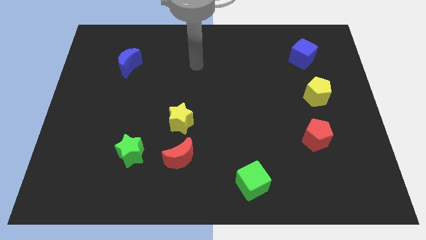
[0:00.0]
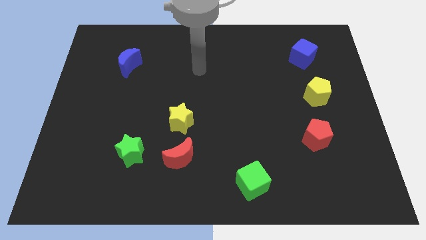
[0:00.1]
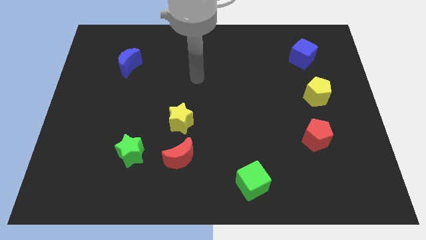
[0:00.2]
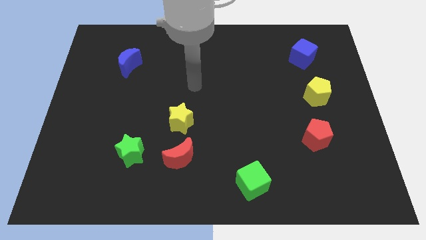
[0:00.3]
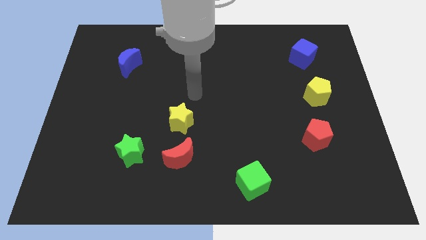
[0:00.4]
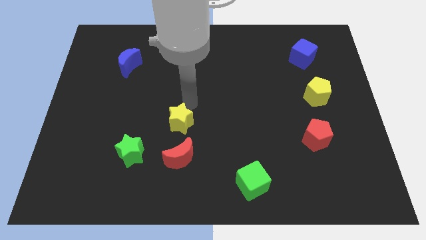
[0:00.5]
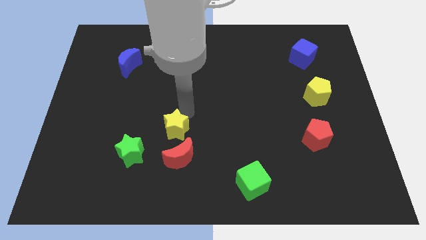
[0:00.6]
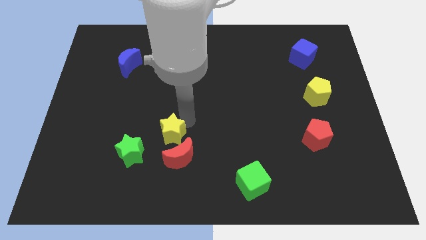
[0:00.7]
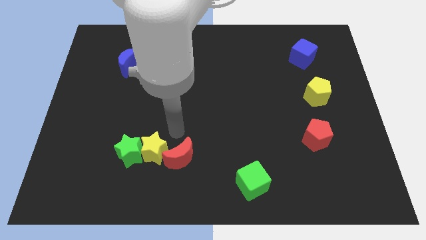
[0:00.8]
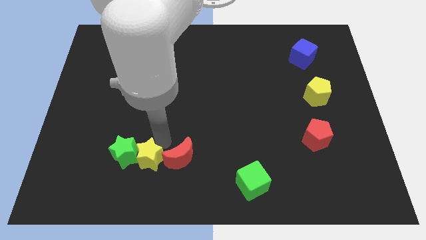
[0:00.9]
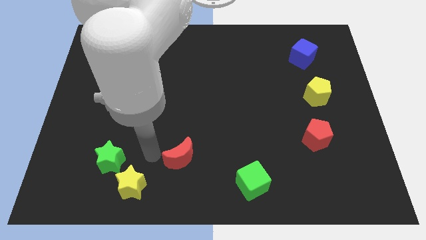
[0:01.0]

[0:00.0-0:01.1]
pull the red moon apart from the yellow star

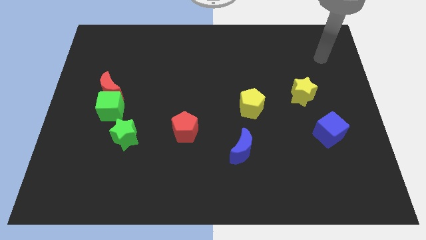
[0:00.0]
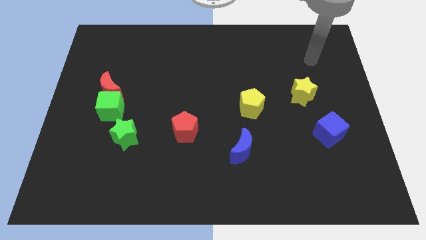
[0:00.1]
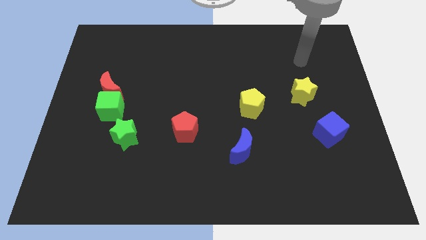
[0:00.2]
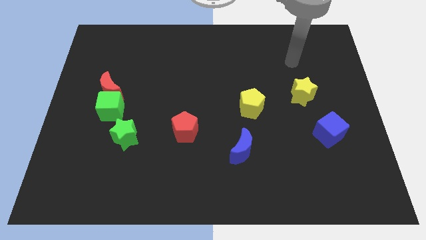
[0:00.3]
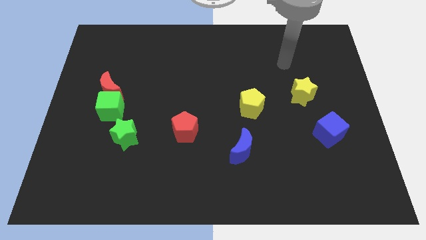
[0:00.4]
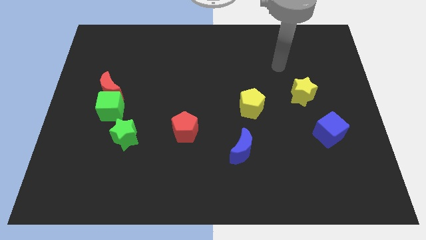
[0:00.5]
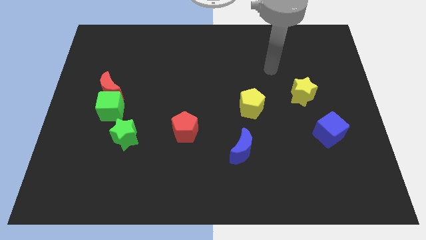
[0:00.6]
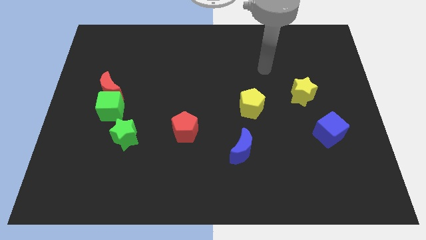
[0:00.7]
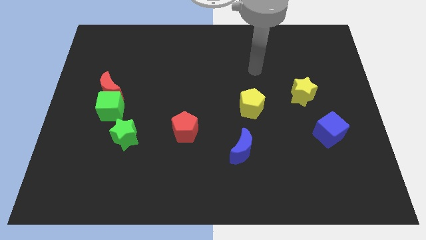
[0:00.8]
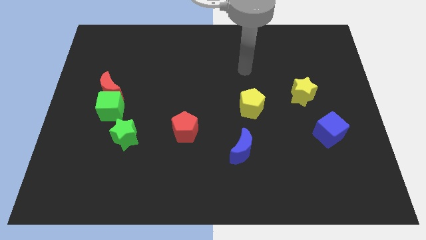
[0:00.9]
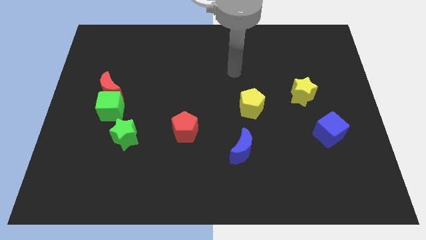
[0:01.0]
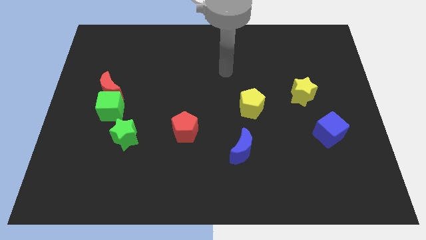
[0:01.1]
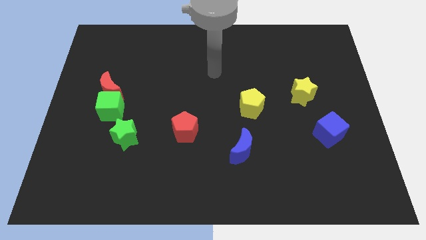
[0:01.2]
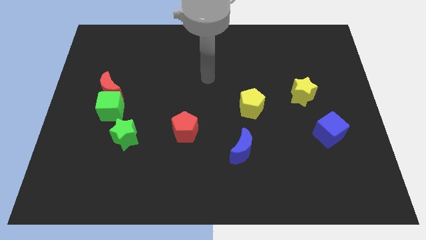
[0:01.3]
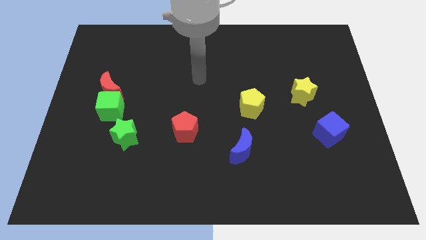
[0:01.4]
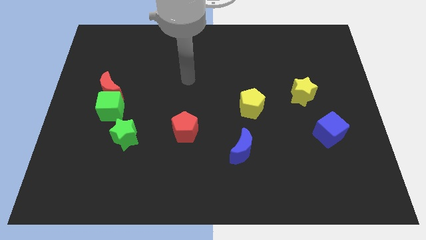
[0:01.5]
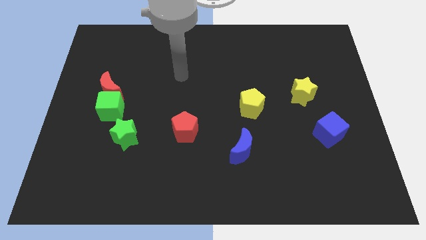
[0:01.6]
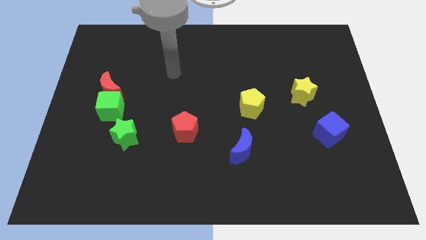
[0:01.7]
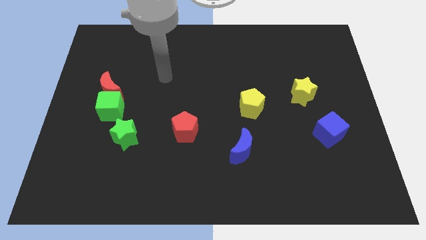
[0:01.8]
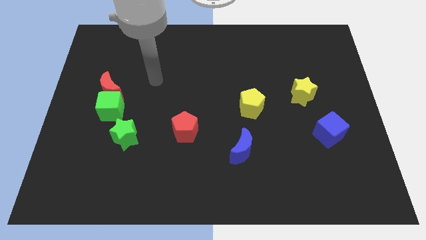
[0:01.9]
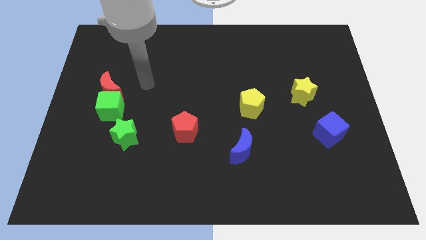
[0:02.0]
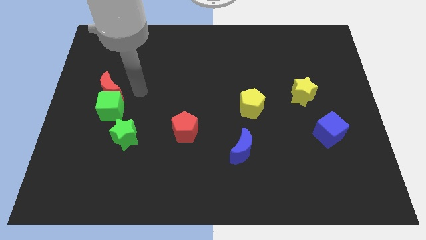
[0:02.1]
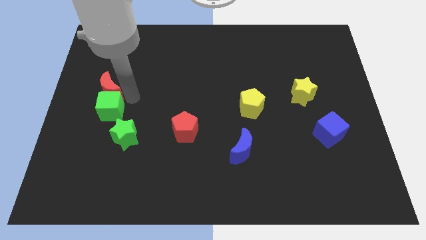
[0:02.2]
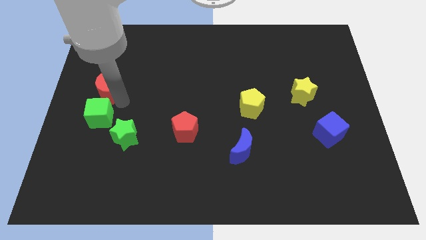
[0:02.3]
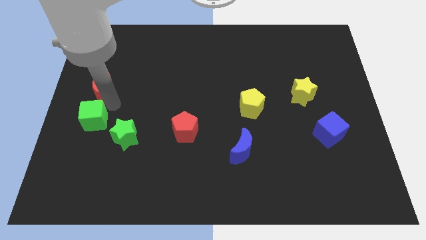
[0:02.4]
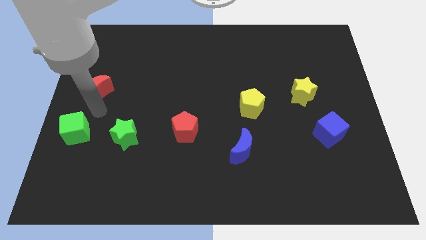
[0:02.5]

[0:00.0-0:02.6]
separate the red moon from the green cube

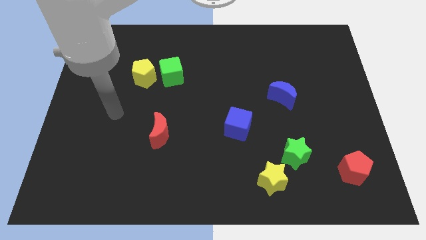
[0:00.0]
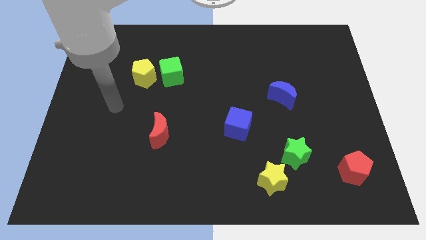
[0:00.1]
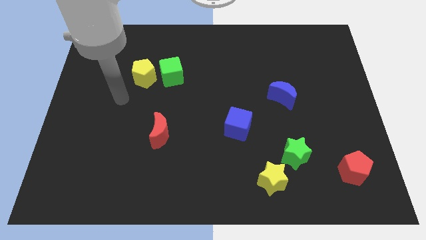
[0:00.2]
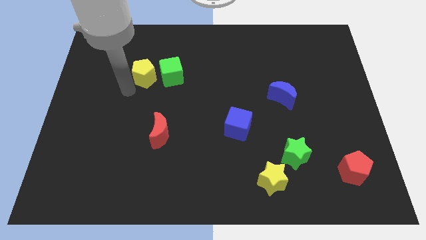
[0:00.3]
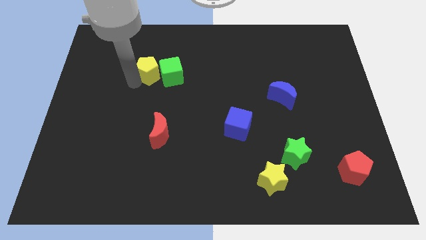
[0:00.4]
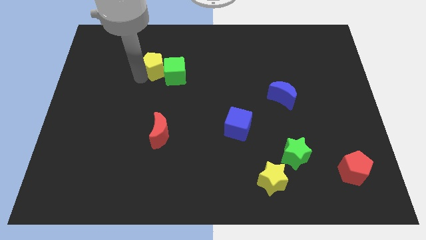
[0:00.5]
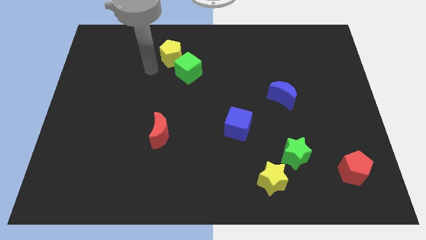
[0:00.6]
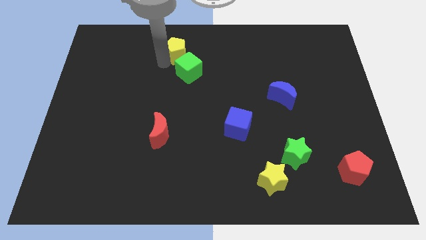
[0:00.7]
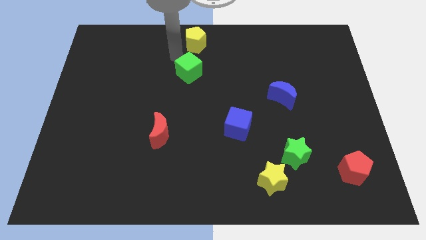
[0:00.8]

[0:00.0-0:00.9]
move the green cube away from the yellow pentagon

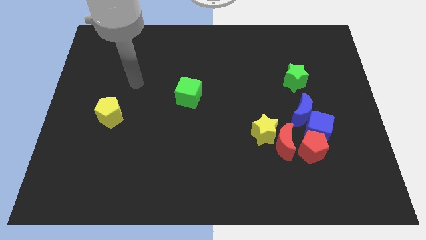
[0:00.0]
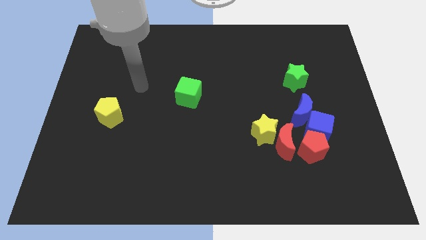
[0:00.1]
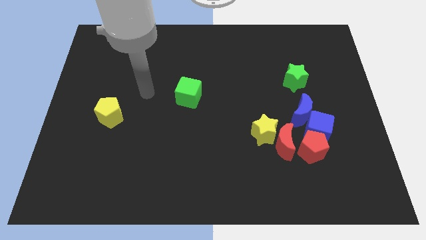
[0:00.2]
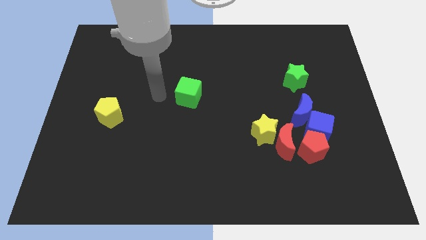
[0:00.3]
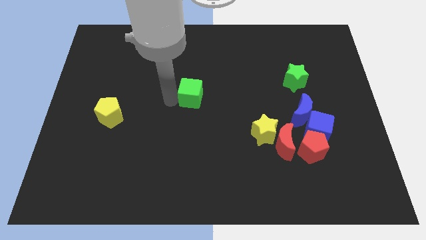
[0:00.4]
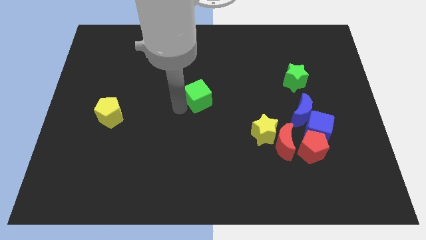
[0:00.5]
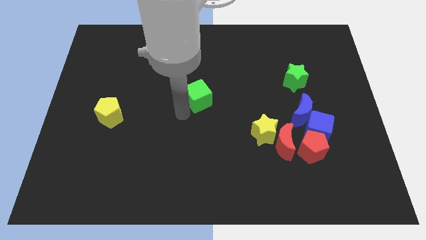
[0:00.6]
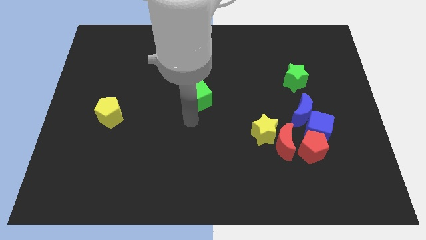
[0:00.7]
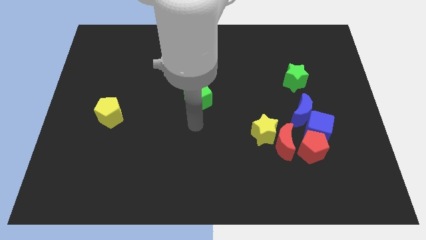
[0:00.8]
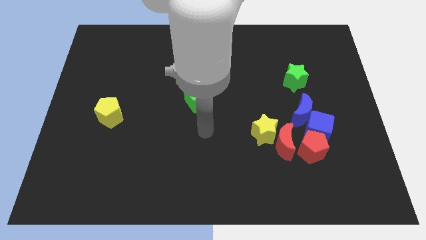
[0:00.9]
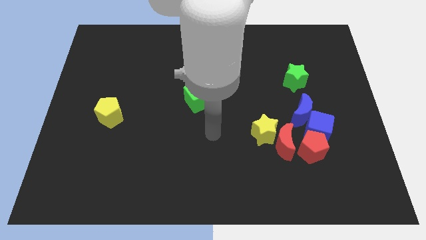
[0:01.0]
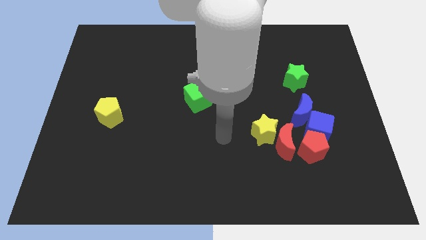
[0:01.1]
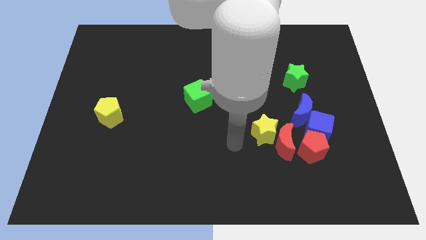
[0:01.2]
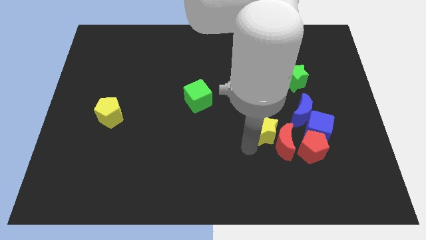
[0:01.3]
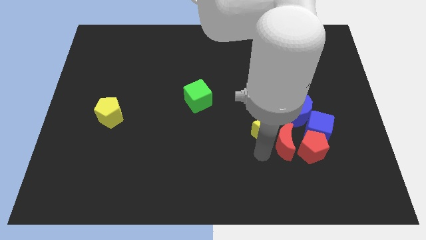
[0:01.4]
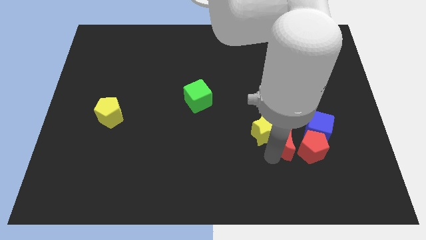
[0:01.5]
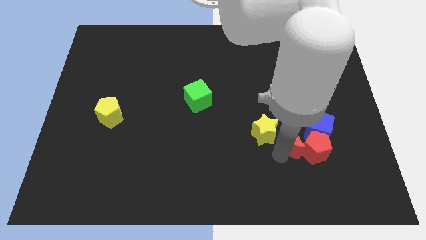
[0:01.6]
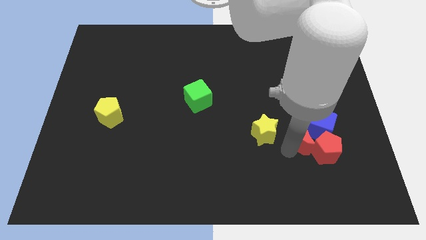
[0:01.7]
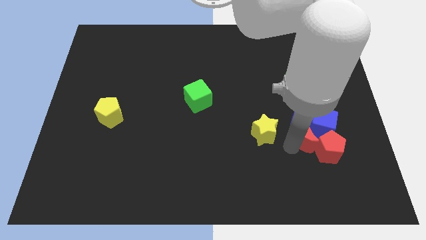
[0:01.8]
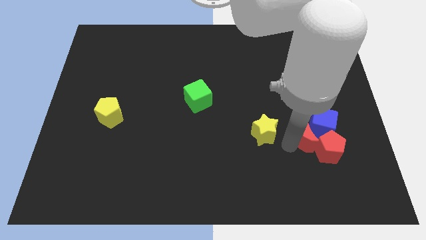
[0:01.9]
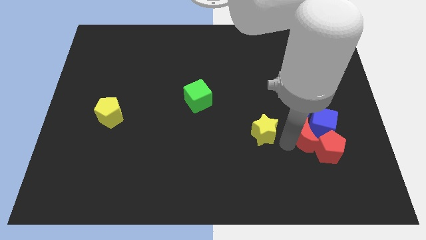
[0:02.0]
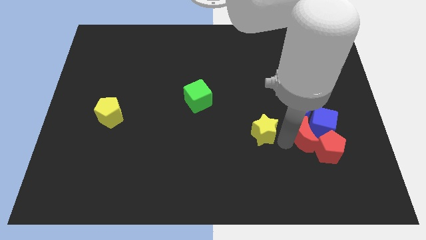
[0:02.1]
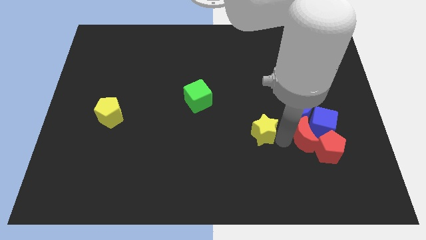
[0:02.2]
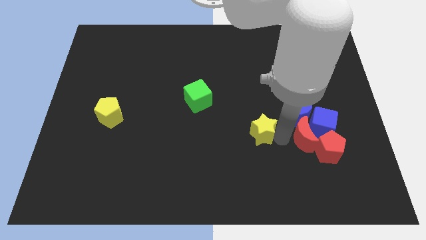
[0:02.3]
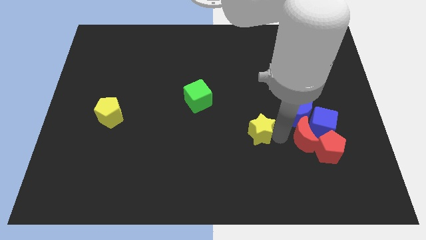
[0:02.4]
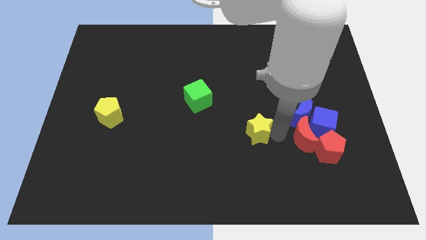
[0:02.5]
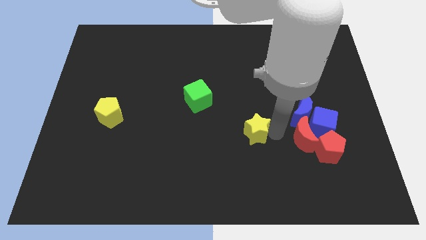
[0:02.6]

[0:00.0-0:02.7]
move the yellow star away from the red moon

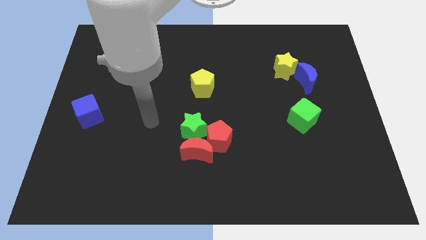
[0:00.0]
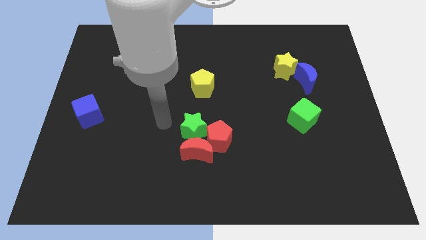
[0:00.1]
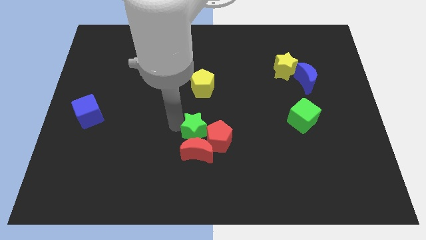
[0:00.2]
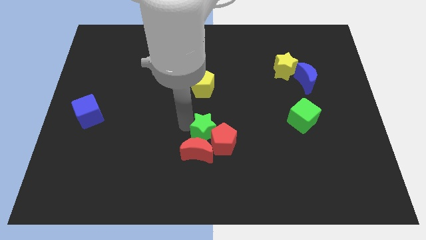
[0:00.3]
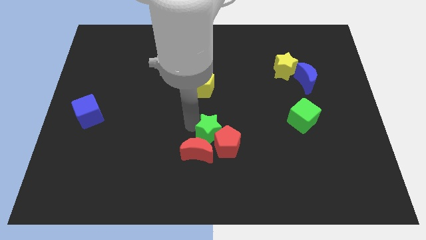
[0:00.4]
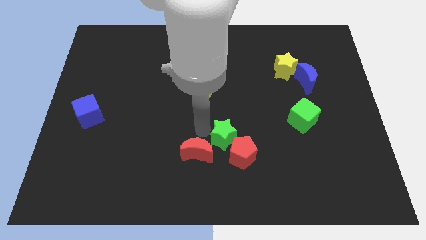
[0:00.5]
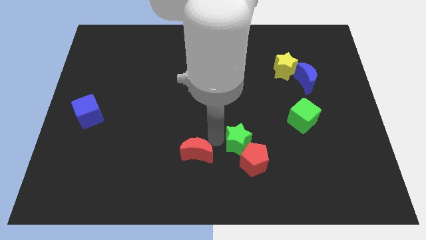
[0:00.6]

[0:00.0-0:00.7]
separate the red moon from the red pentagon and green star

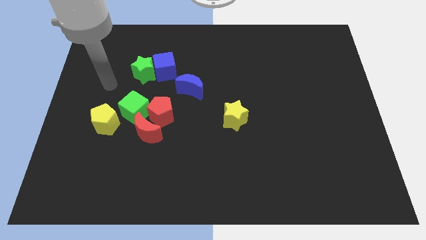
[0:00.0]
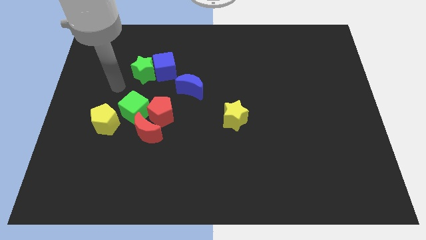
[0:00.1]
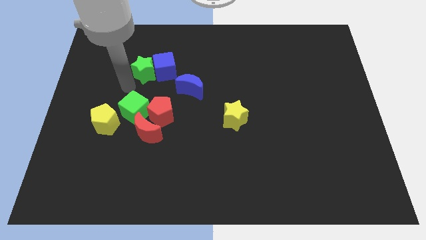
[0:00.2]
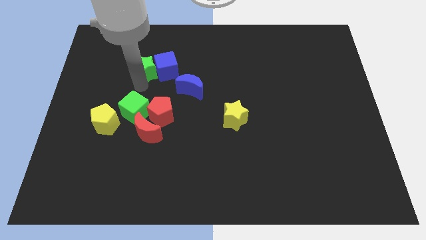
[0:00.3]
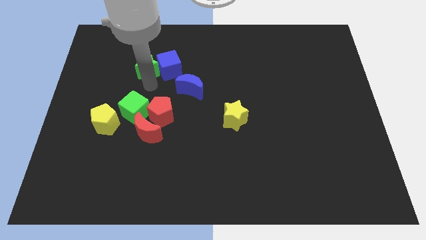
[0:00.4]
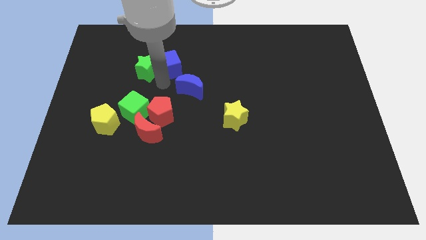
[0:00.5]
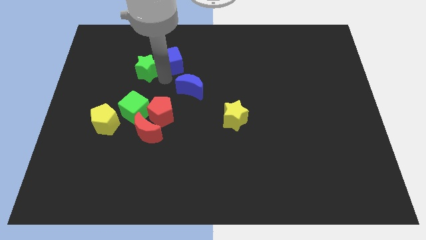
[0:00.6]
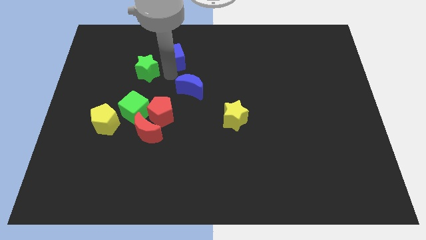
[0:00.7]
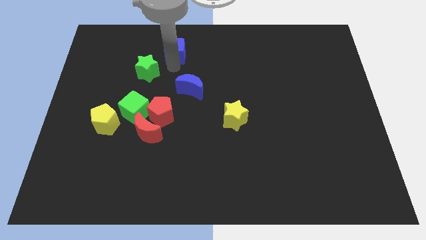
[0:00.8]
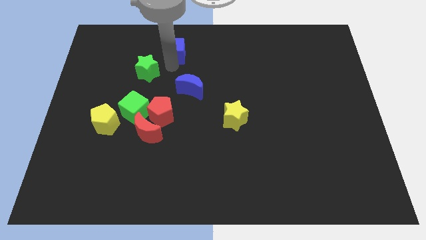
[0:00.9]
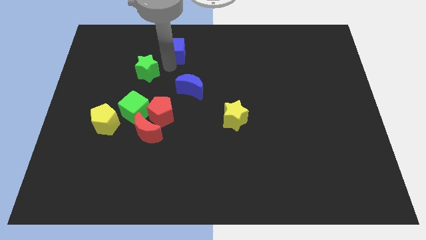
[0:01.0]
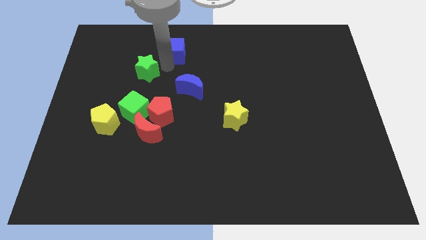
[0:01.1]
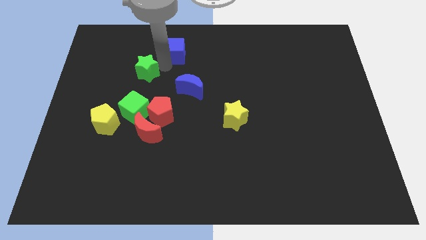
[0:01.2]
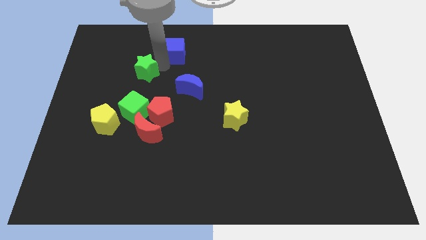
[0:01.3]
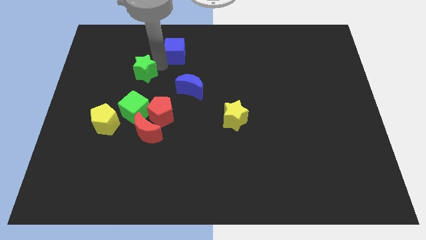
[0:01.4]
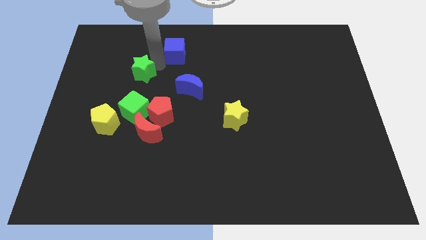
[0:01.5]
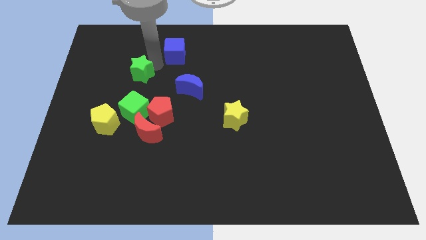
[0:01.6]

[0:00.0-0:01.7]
pull the green star apart from the blue cube
